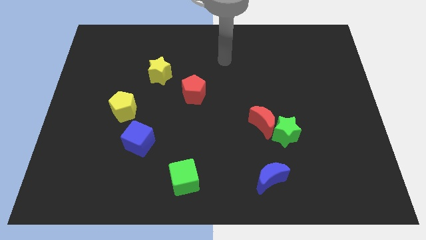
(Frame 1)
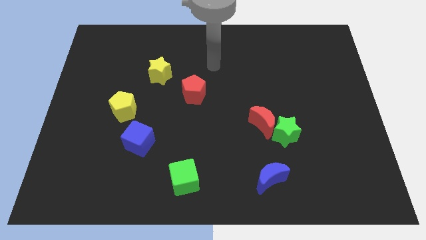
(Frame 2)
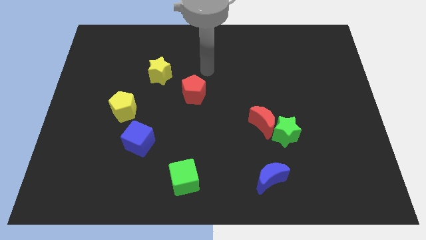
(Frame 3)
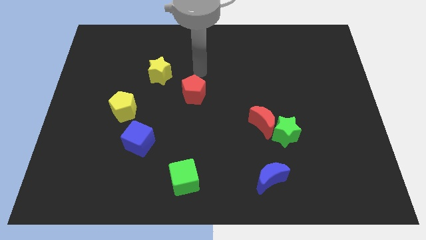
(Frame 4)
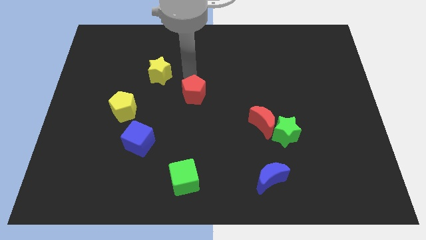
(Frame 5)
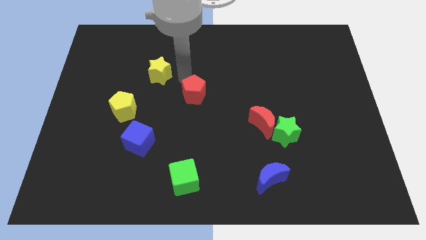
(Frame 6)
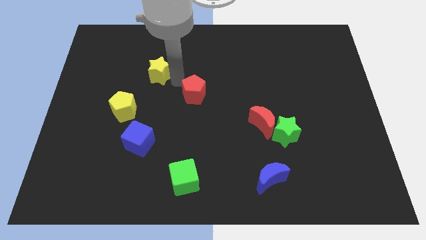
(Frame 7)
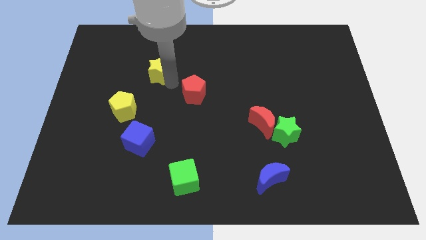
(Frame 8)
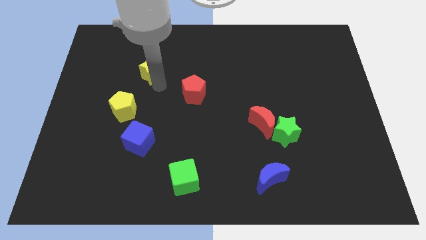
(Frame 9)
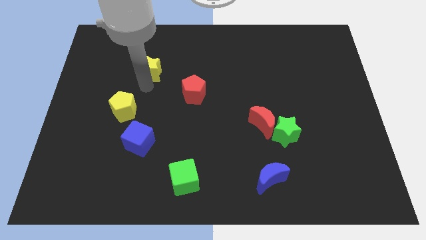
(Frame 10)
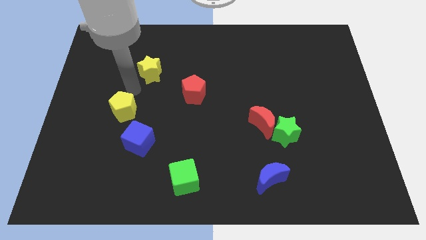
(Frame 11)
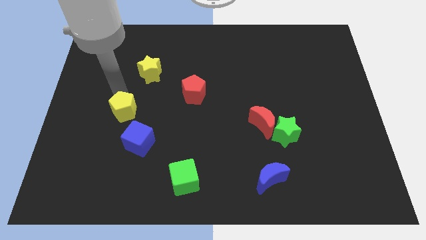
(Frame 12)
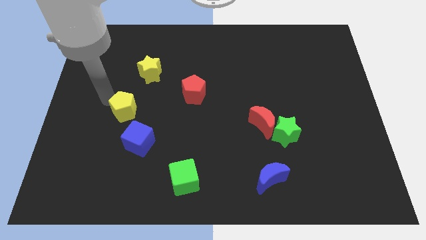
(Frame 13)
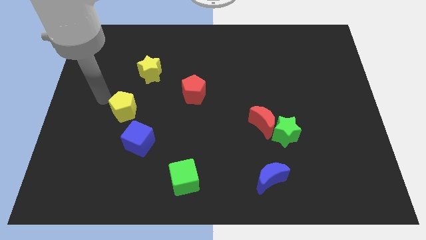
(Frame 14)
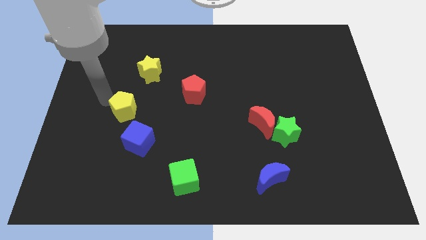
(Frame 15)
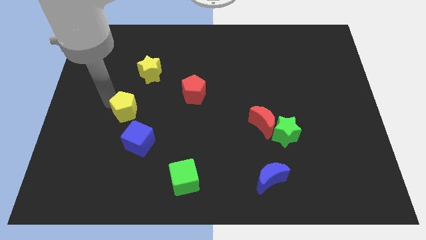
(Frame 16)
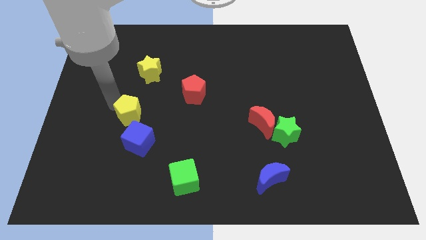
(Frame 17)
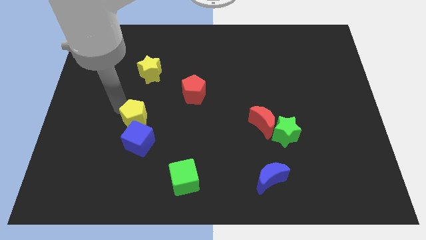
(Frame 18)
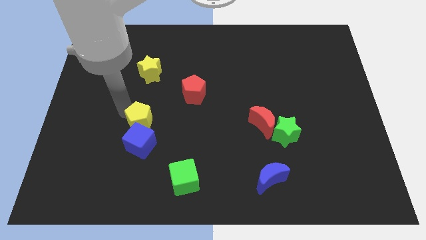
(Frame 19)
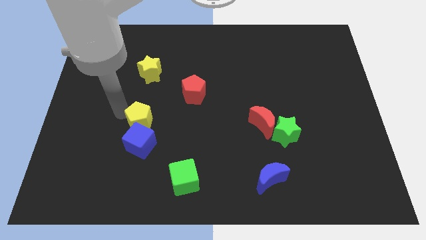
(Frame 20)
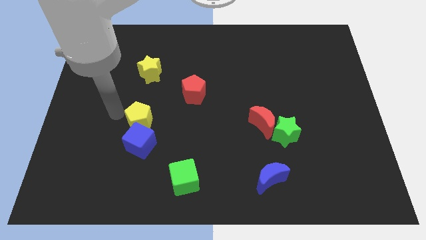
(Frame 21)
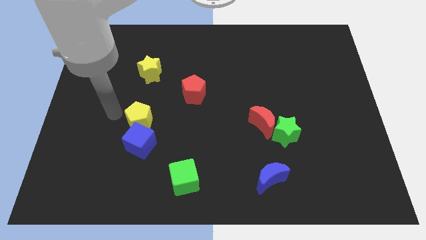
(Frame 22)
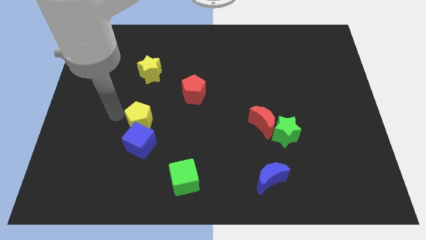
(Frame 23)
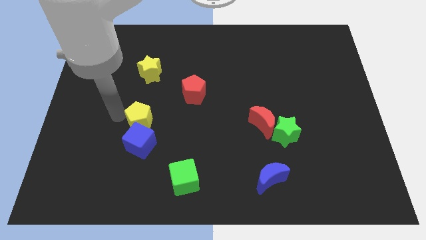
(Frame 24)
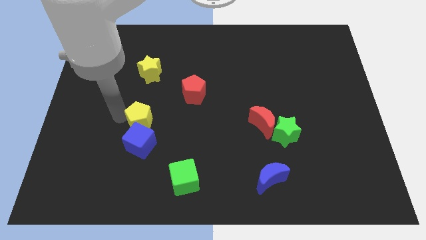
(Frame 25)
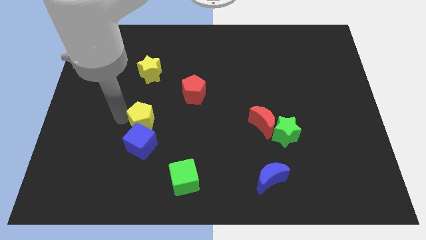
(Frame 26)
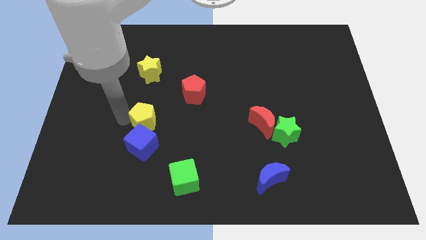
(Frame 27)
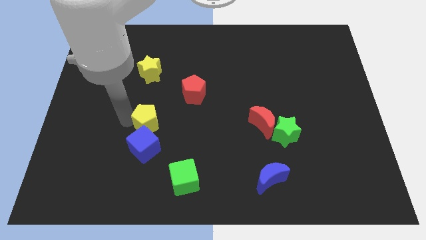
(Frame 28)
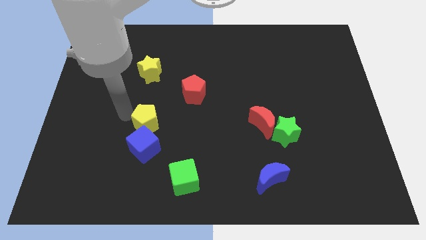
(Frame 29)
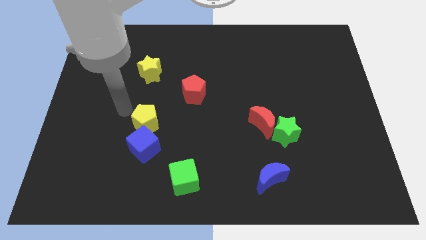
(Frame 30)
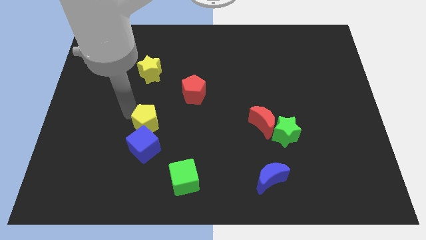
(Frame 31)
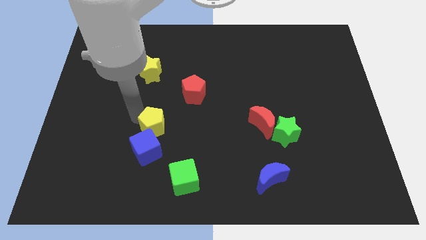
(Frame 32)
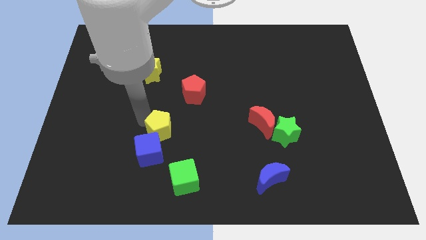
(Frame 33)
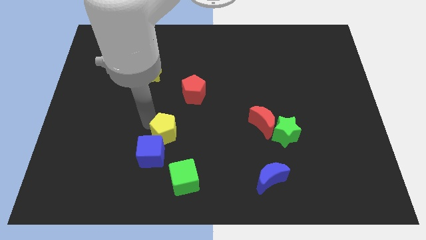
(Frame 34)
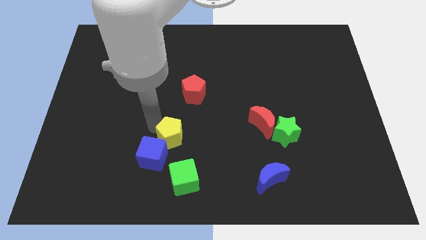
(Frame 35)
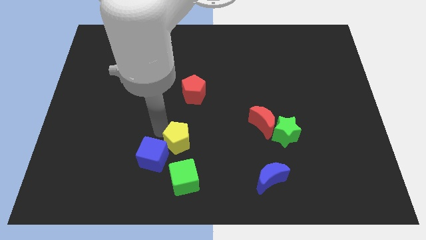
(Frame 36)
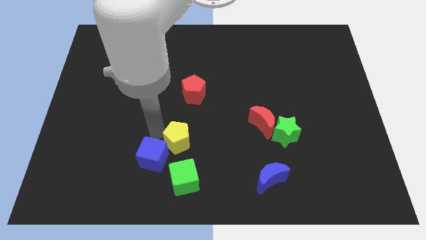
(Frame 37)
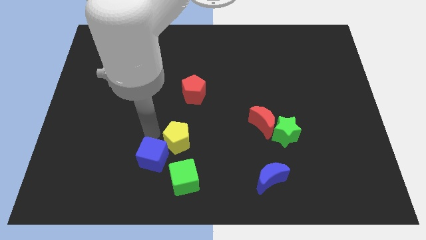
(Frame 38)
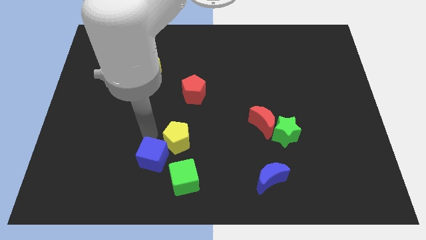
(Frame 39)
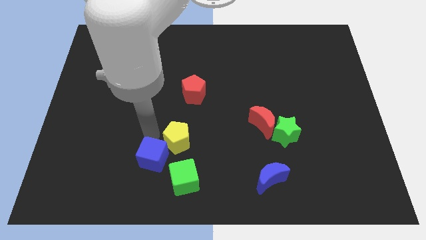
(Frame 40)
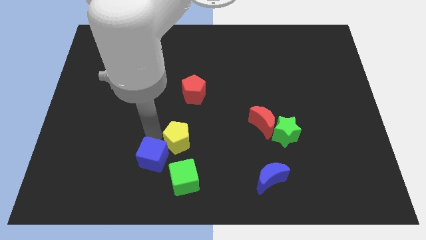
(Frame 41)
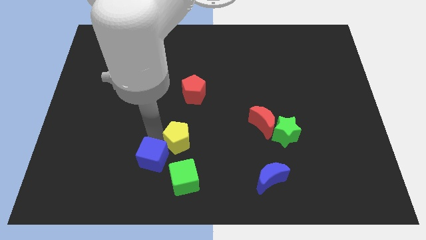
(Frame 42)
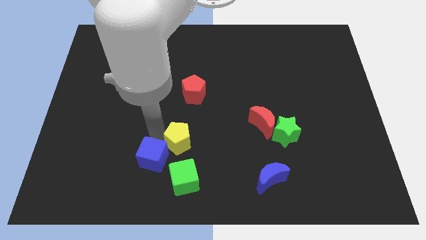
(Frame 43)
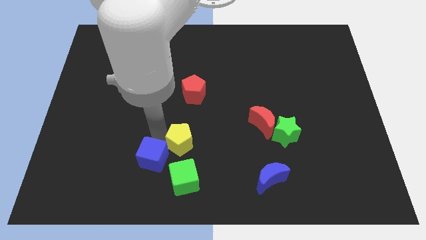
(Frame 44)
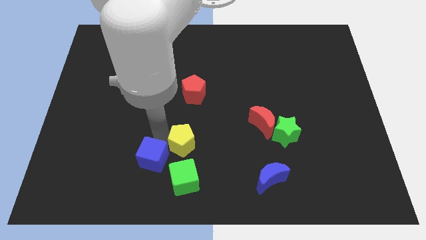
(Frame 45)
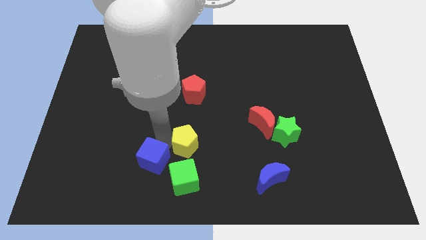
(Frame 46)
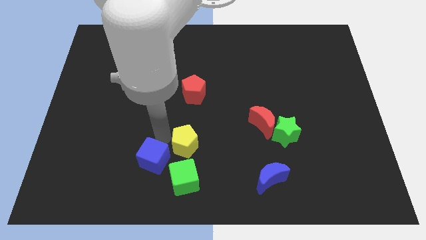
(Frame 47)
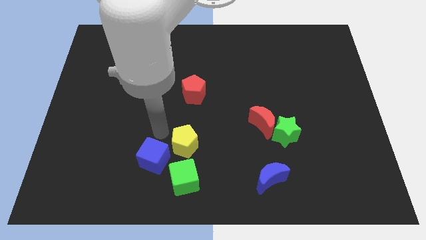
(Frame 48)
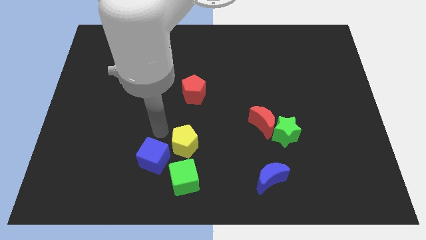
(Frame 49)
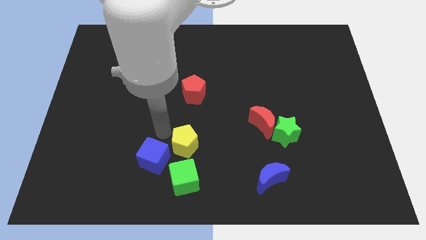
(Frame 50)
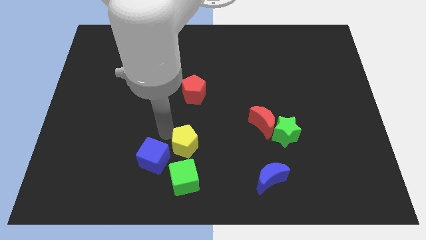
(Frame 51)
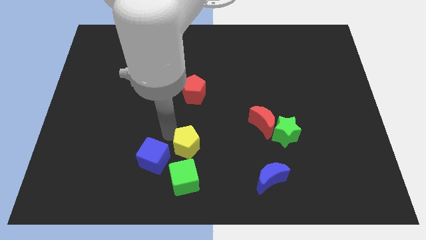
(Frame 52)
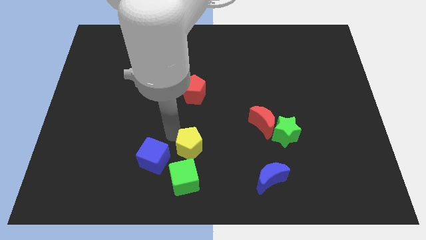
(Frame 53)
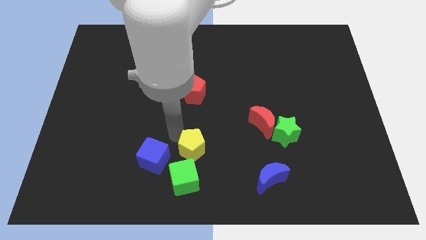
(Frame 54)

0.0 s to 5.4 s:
put the yellow pentagon diagonally up and to the right of the green cube

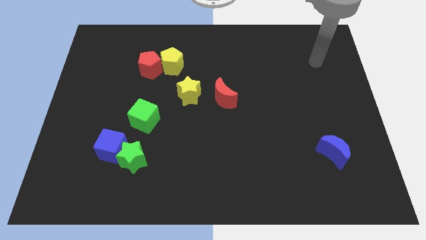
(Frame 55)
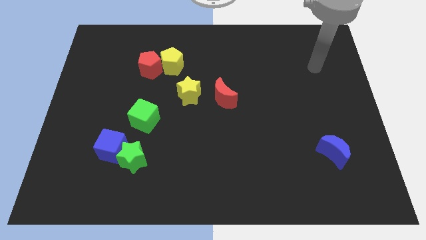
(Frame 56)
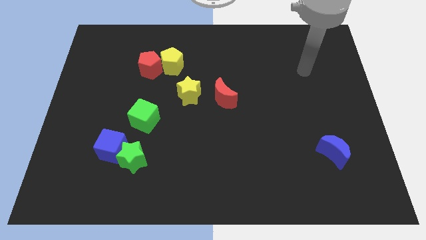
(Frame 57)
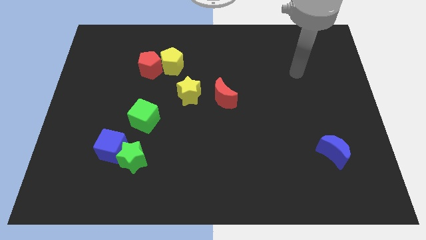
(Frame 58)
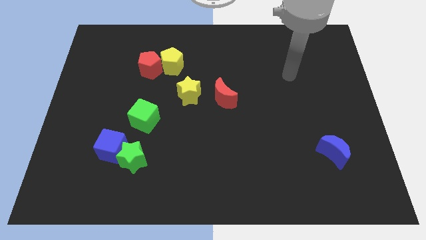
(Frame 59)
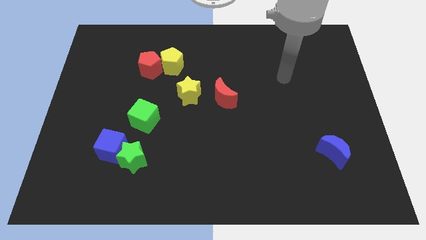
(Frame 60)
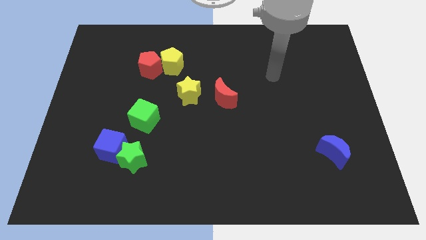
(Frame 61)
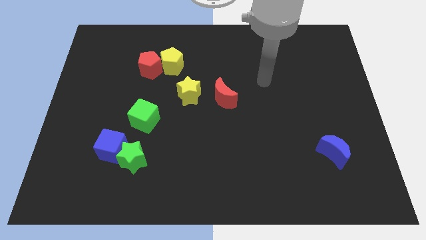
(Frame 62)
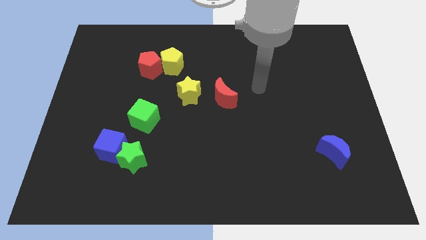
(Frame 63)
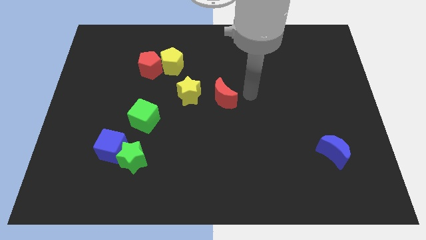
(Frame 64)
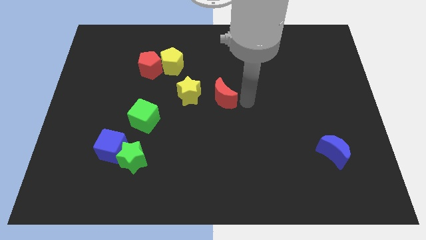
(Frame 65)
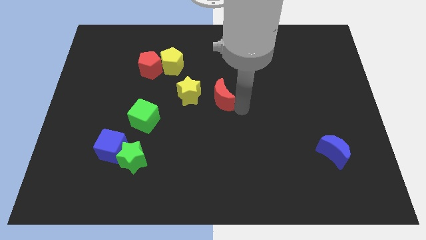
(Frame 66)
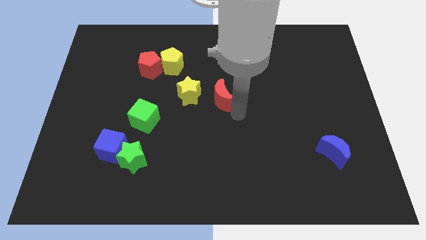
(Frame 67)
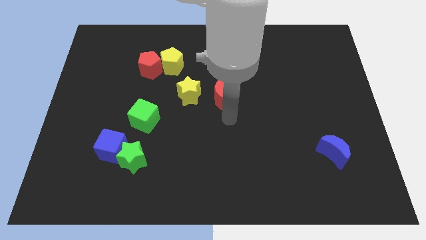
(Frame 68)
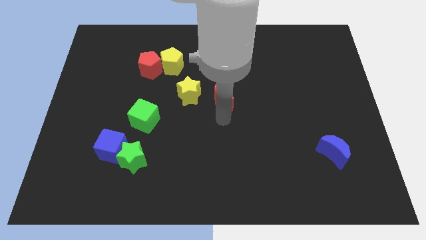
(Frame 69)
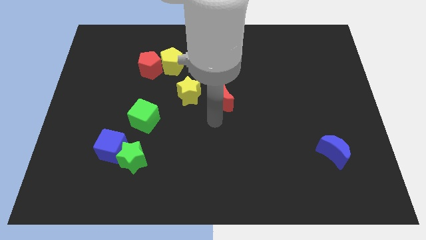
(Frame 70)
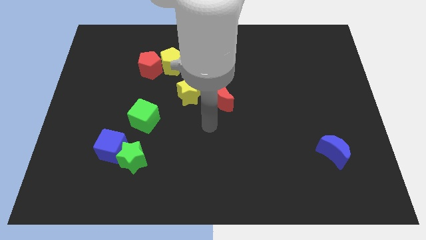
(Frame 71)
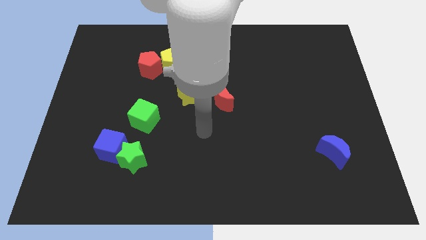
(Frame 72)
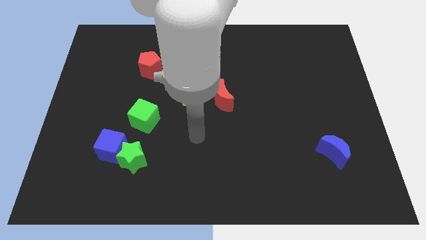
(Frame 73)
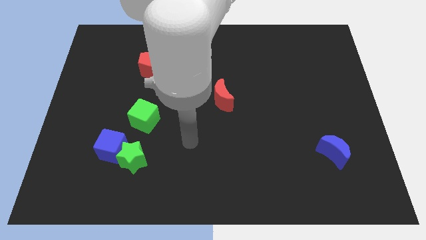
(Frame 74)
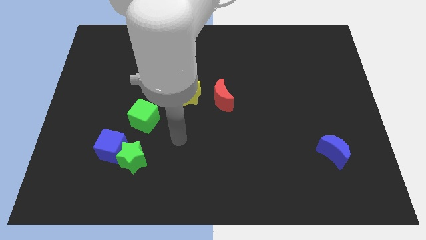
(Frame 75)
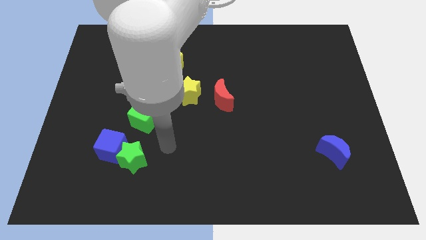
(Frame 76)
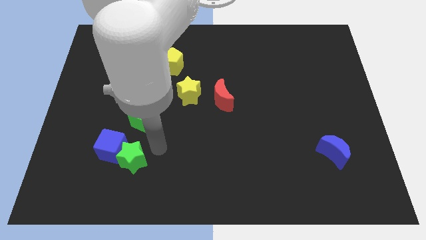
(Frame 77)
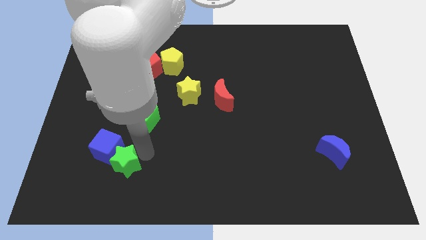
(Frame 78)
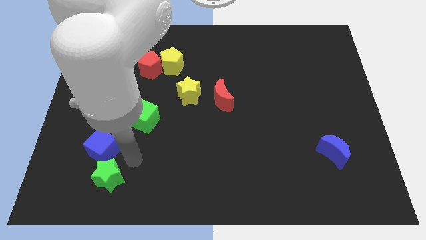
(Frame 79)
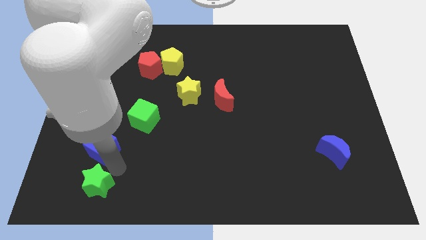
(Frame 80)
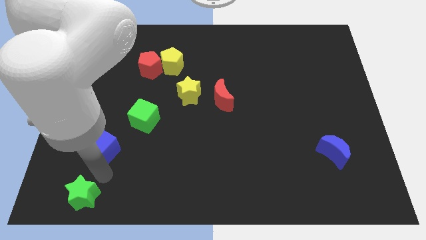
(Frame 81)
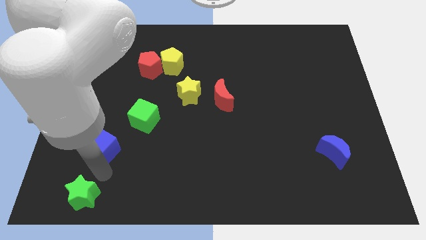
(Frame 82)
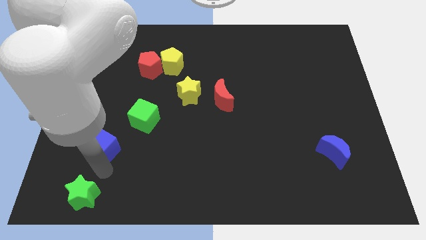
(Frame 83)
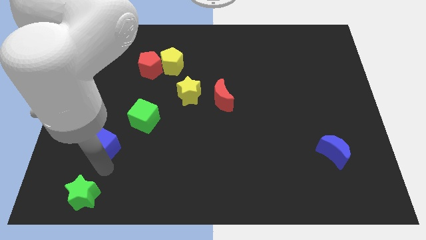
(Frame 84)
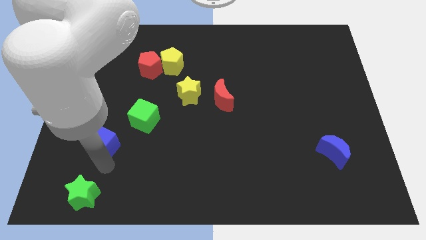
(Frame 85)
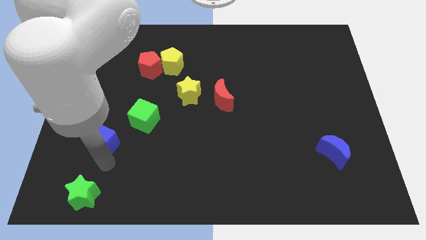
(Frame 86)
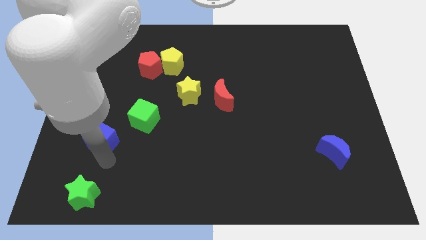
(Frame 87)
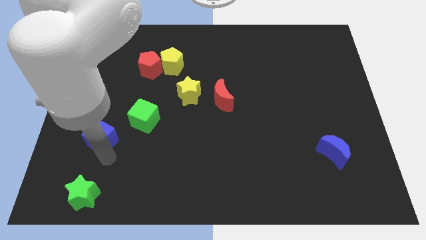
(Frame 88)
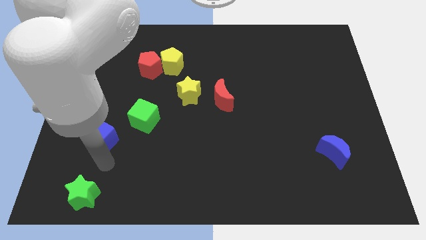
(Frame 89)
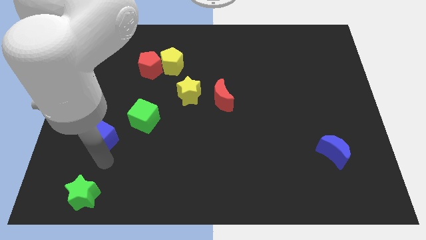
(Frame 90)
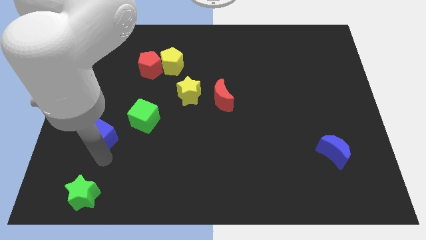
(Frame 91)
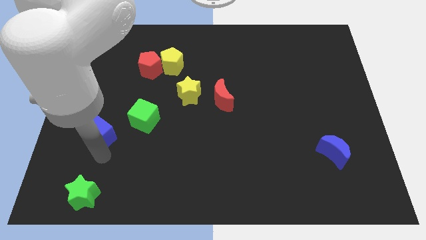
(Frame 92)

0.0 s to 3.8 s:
put the blue cube left of the green cube
